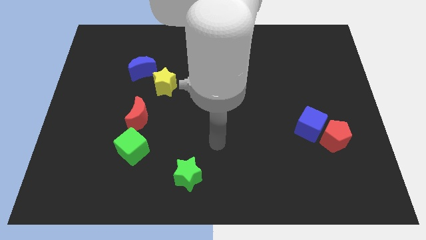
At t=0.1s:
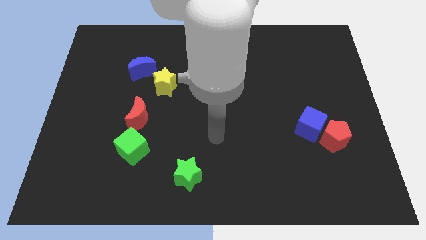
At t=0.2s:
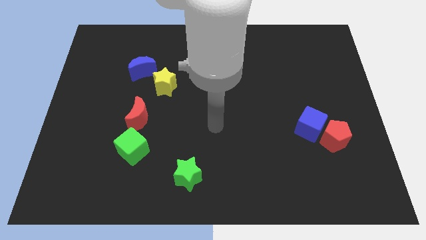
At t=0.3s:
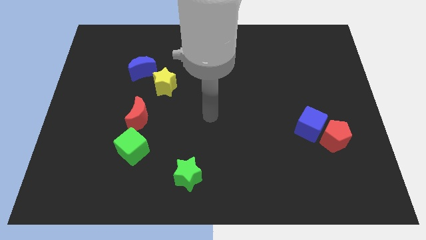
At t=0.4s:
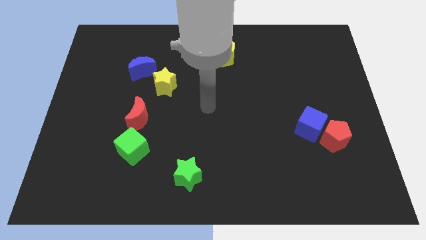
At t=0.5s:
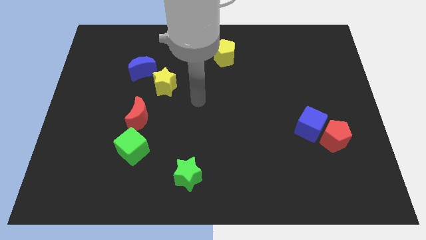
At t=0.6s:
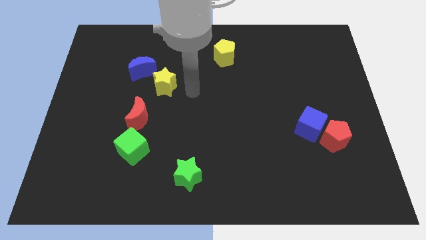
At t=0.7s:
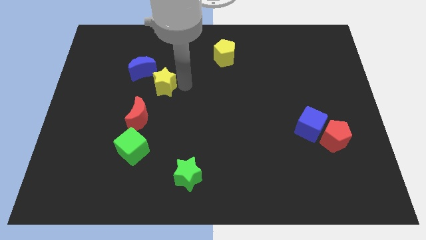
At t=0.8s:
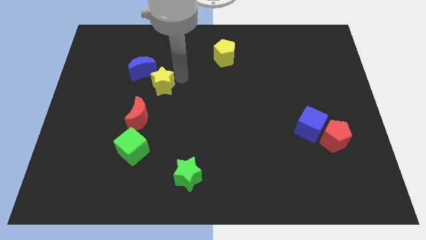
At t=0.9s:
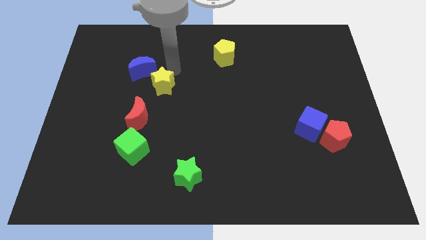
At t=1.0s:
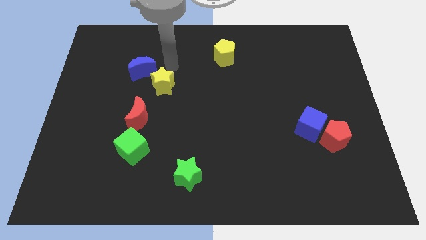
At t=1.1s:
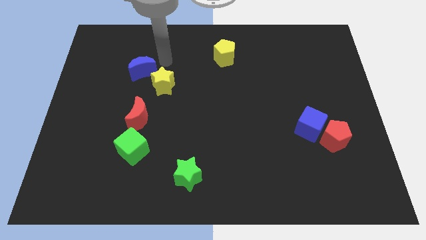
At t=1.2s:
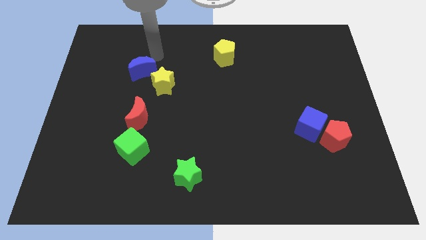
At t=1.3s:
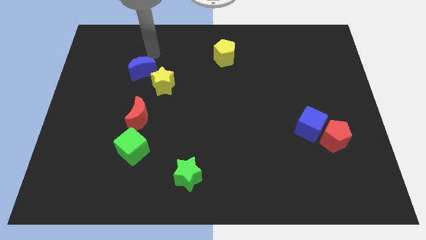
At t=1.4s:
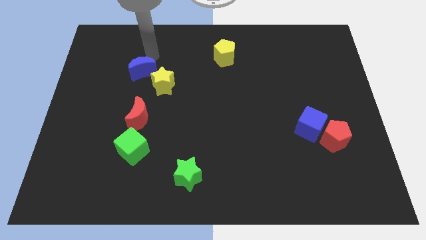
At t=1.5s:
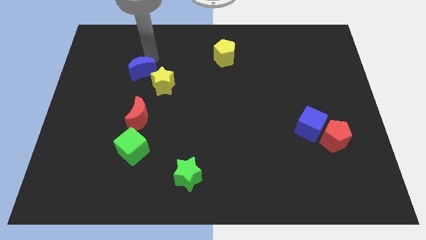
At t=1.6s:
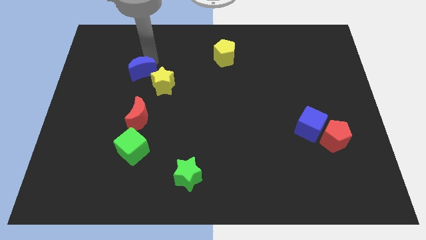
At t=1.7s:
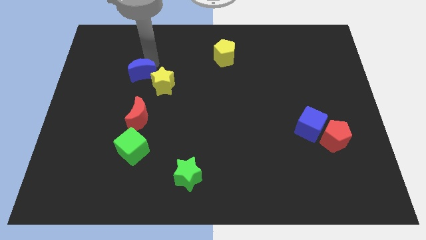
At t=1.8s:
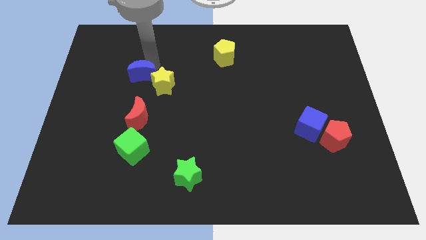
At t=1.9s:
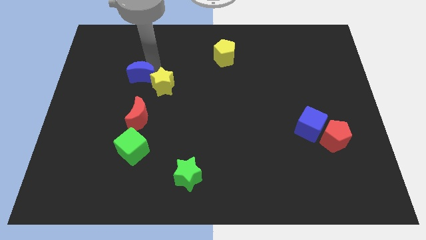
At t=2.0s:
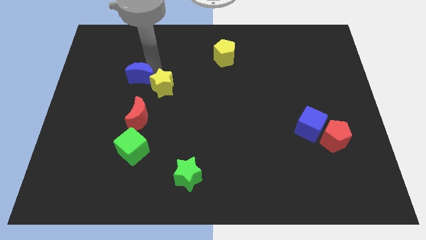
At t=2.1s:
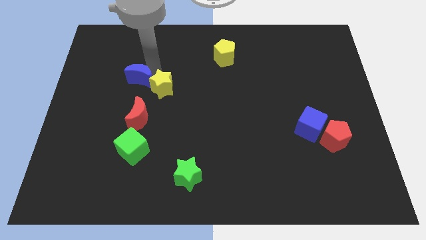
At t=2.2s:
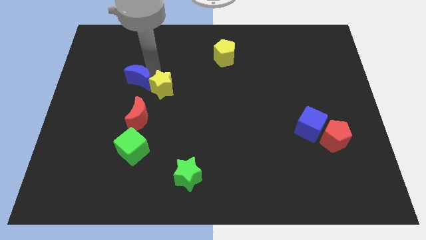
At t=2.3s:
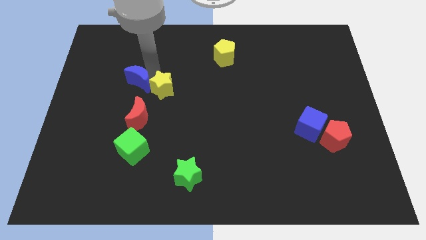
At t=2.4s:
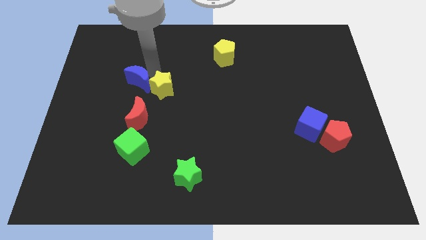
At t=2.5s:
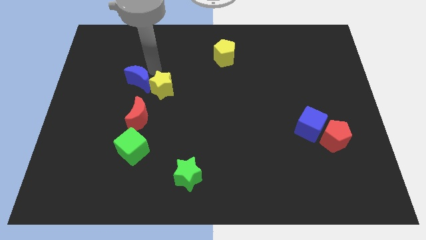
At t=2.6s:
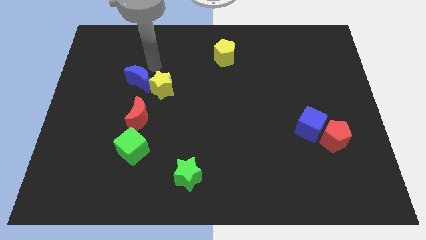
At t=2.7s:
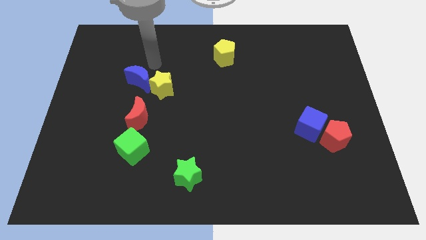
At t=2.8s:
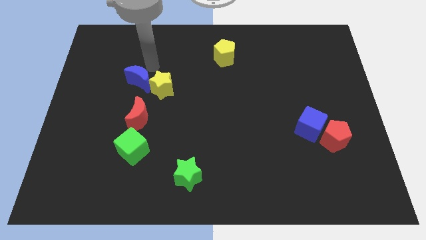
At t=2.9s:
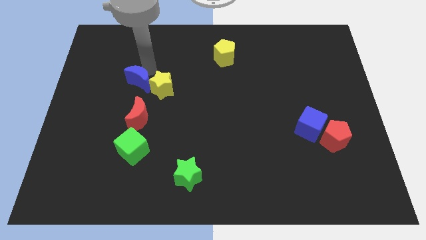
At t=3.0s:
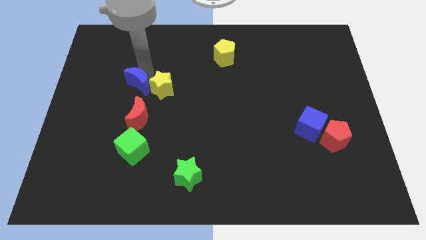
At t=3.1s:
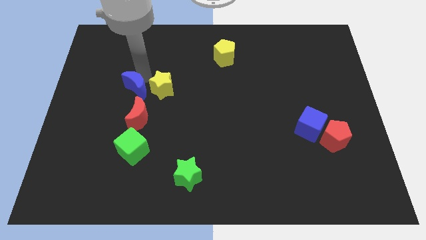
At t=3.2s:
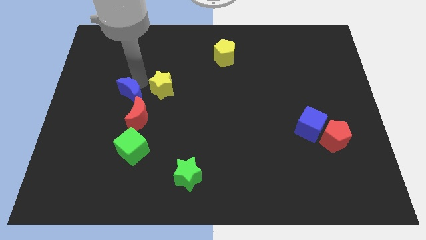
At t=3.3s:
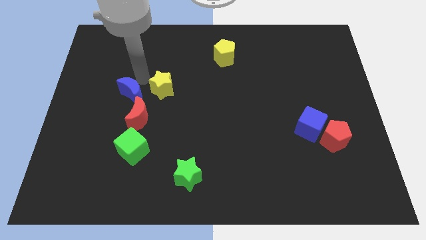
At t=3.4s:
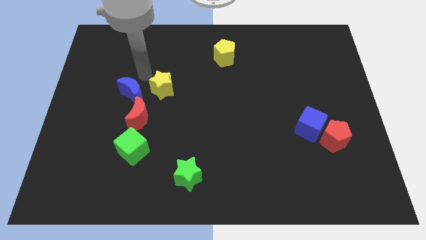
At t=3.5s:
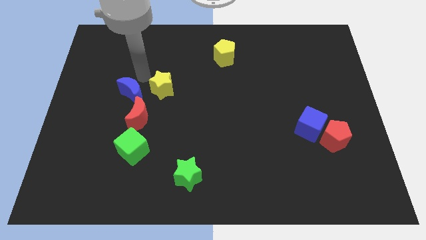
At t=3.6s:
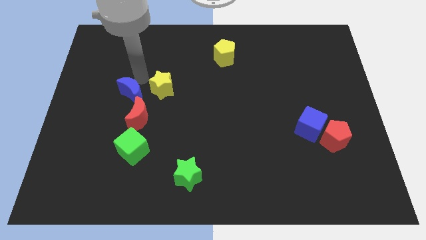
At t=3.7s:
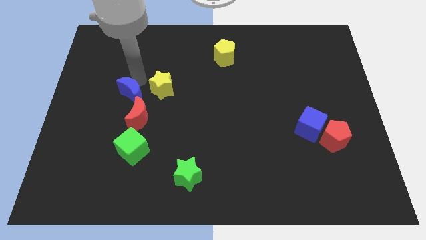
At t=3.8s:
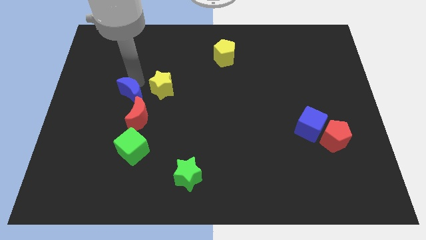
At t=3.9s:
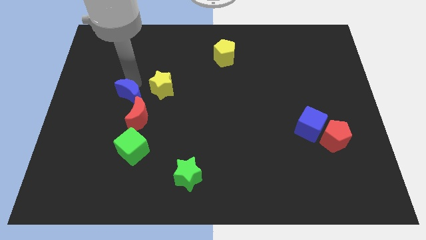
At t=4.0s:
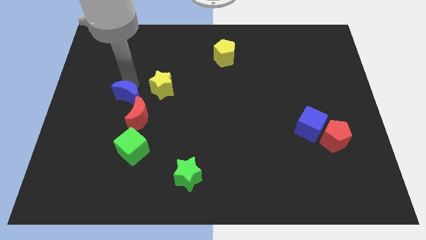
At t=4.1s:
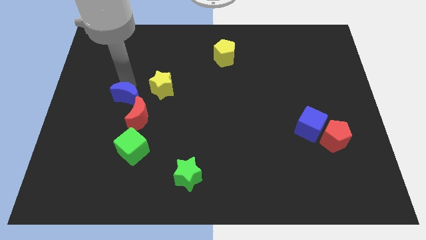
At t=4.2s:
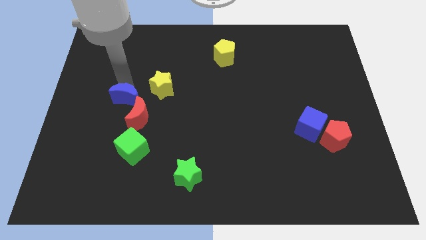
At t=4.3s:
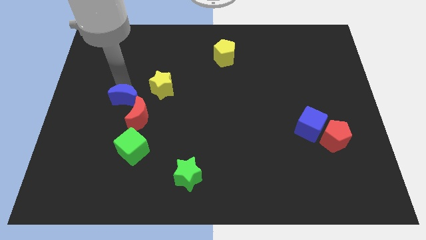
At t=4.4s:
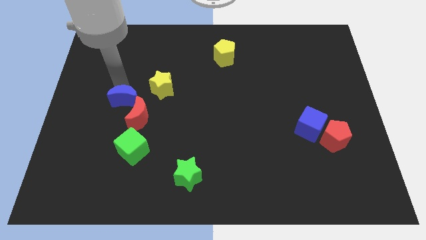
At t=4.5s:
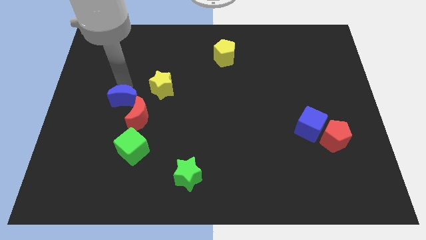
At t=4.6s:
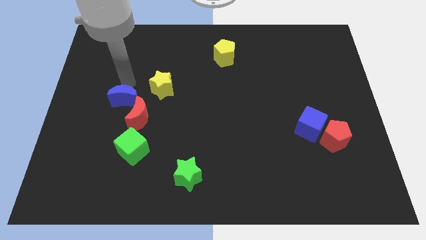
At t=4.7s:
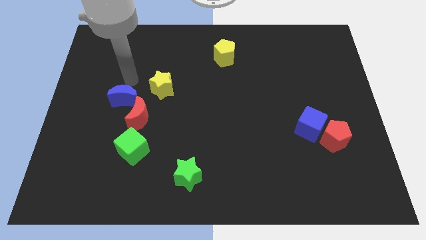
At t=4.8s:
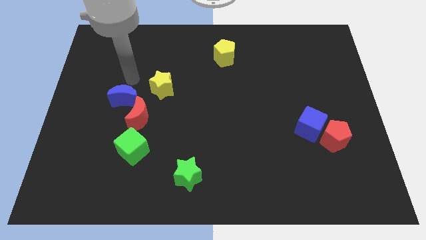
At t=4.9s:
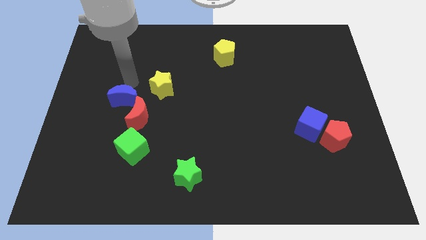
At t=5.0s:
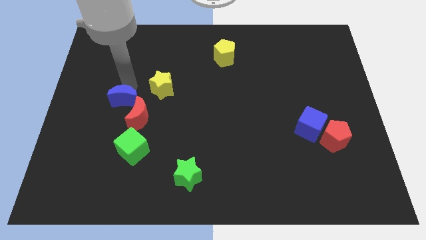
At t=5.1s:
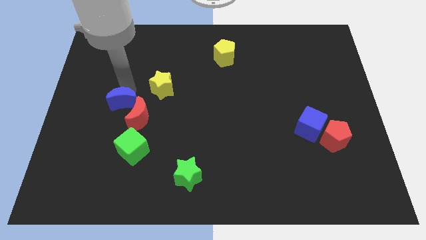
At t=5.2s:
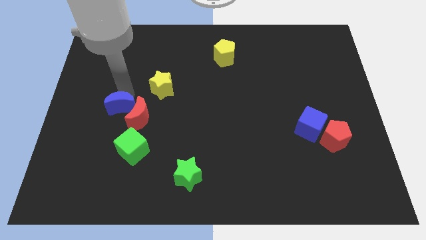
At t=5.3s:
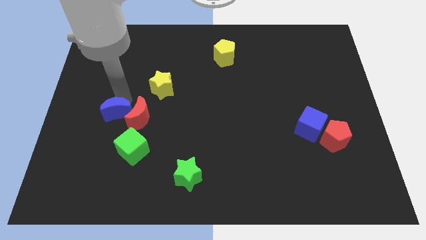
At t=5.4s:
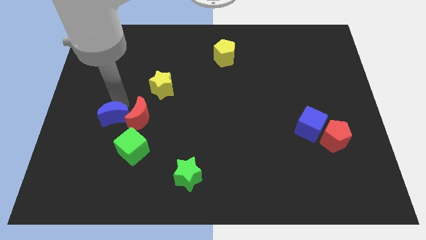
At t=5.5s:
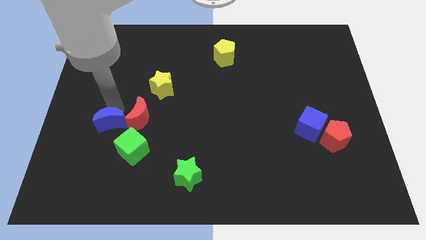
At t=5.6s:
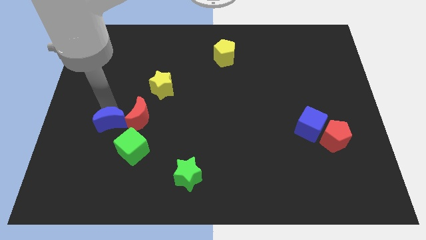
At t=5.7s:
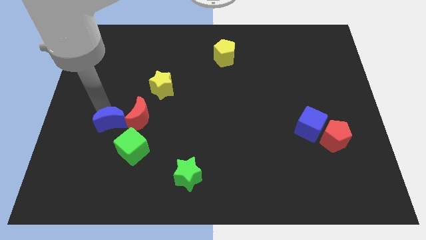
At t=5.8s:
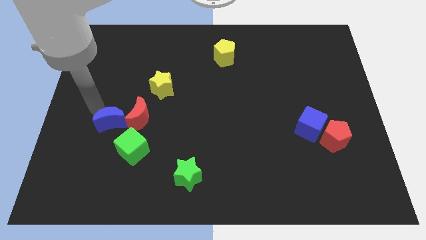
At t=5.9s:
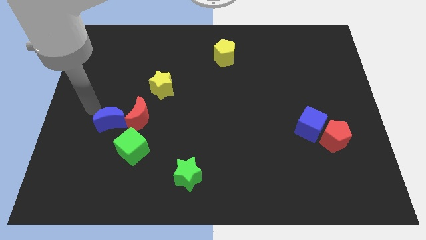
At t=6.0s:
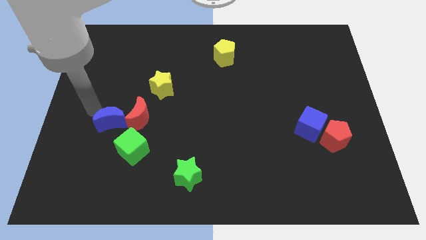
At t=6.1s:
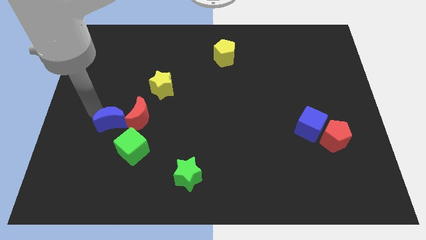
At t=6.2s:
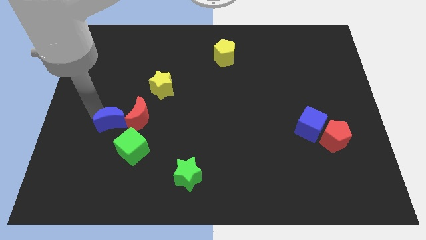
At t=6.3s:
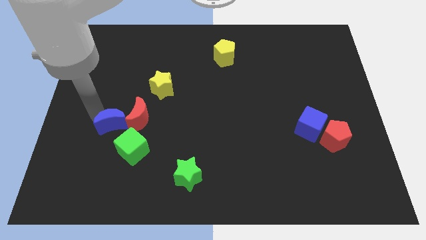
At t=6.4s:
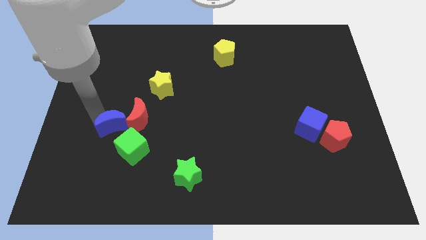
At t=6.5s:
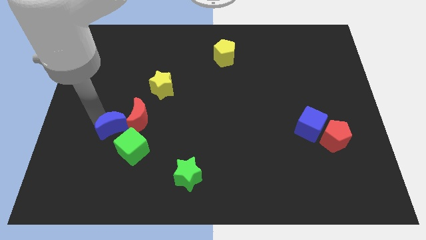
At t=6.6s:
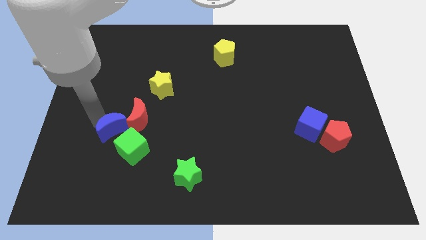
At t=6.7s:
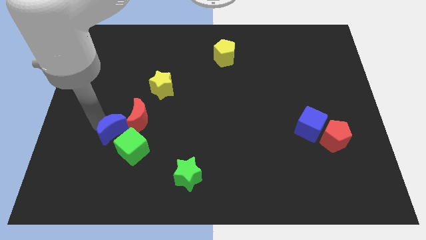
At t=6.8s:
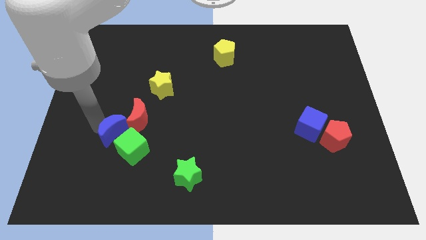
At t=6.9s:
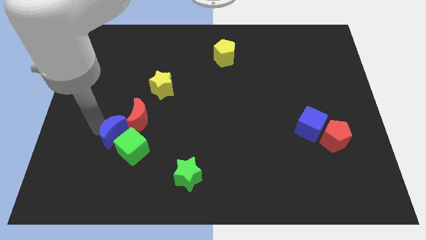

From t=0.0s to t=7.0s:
push the blue moon close to the green cube
